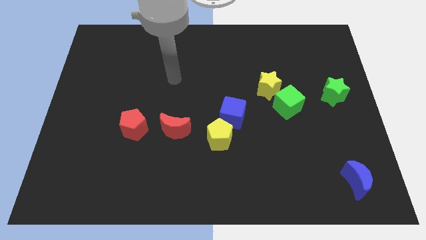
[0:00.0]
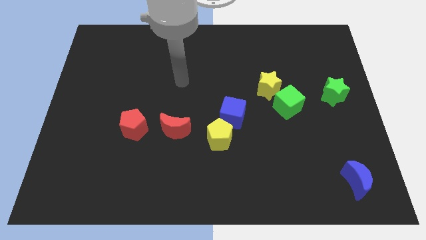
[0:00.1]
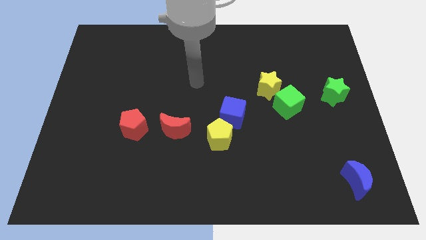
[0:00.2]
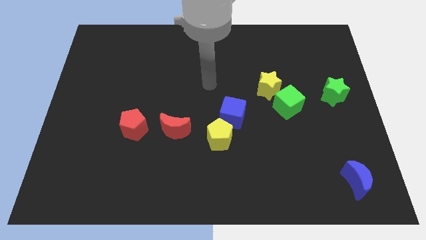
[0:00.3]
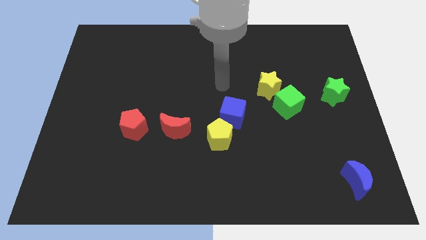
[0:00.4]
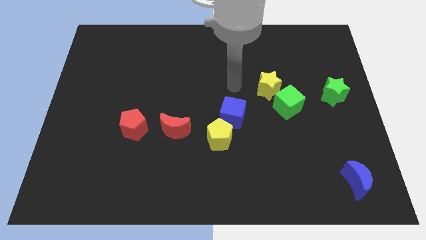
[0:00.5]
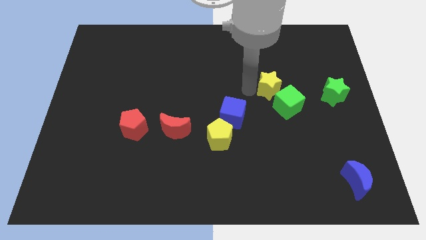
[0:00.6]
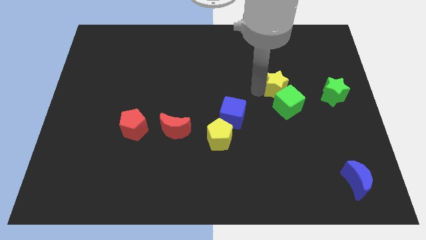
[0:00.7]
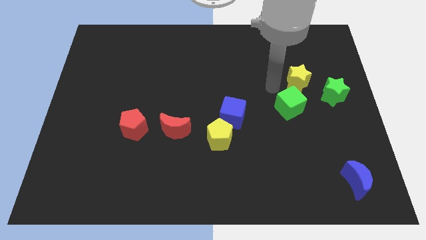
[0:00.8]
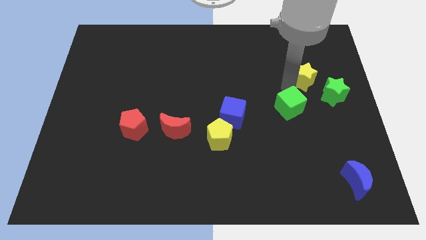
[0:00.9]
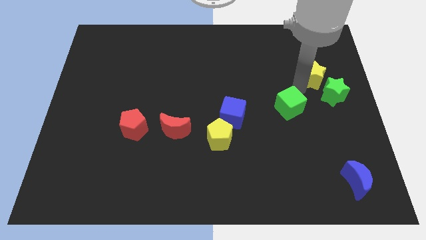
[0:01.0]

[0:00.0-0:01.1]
move the green cube away from the yellow star

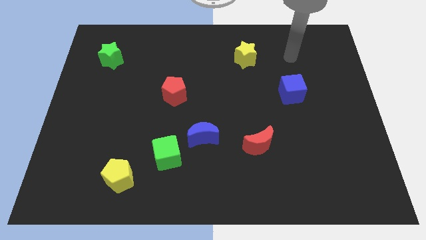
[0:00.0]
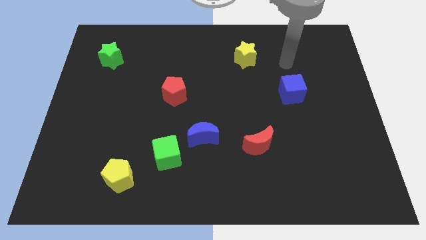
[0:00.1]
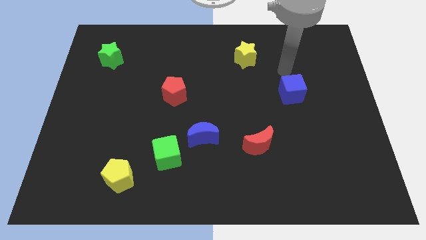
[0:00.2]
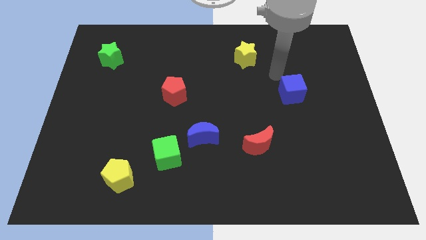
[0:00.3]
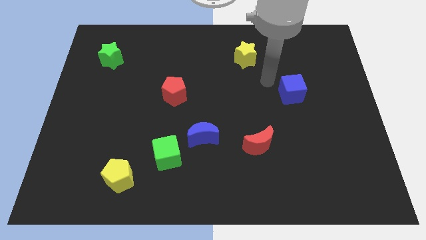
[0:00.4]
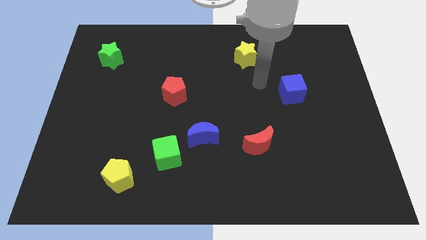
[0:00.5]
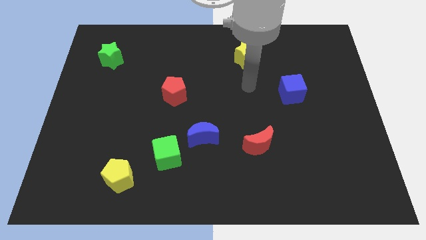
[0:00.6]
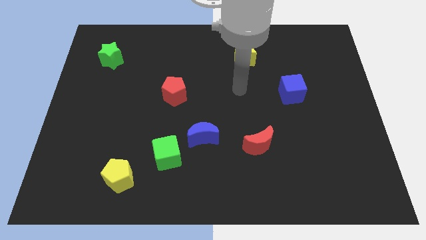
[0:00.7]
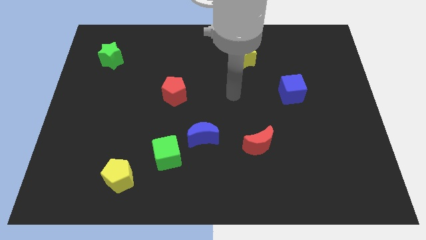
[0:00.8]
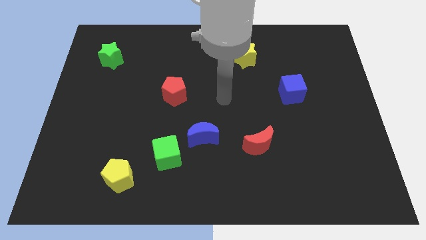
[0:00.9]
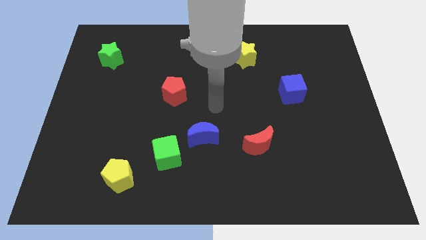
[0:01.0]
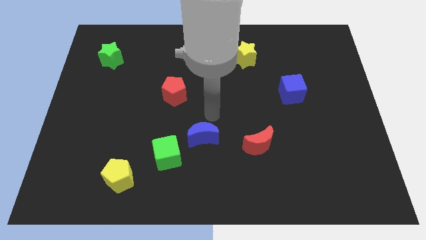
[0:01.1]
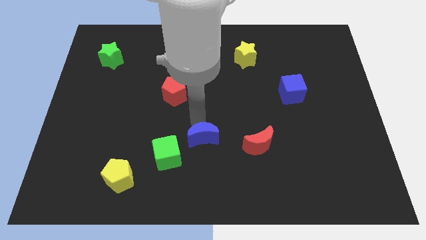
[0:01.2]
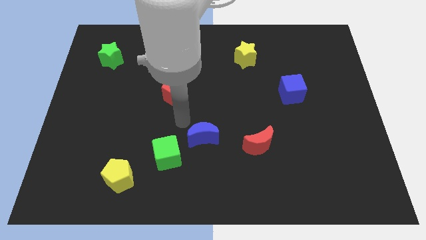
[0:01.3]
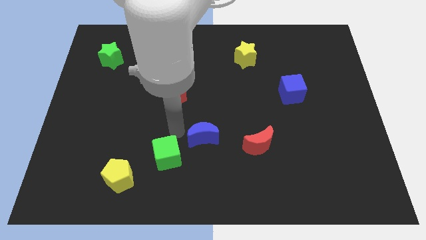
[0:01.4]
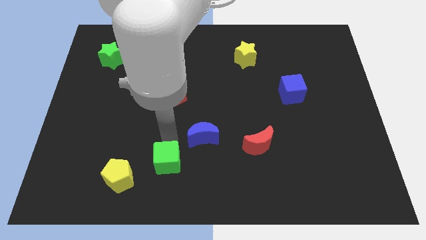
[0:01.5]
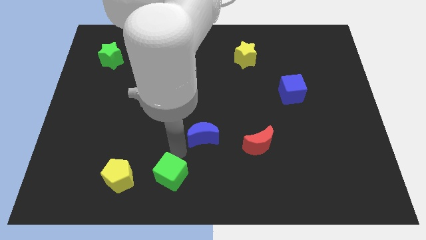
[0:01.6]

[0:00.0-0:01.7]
pull the blue moon apart from the green cube

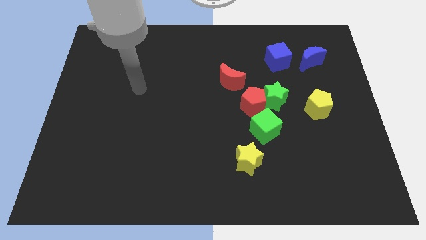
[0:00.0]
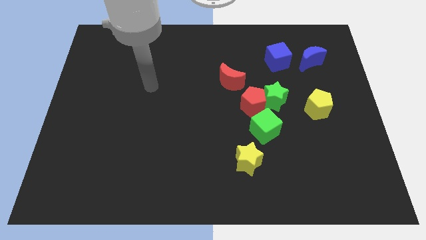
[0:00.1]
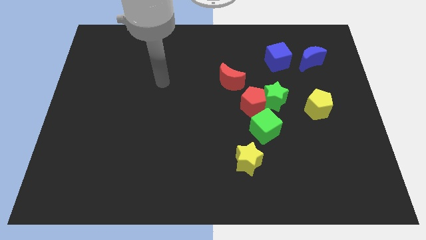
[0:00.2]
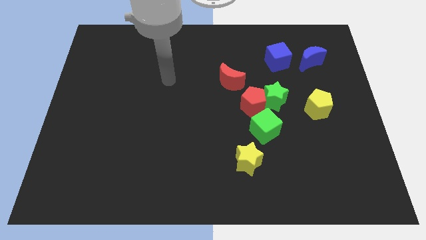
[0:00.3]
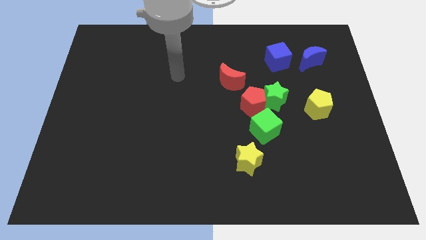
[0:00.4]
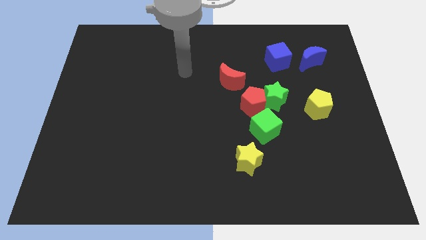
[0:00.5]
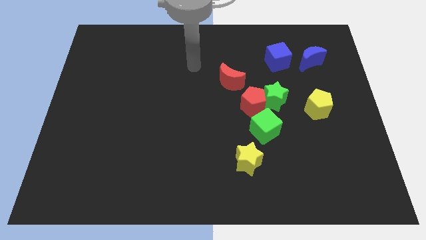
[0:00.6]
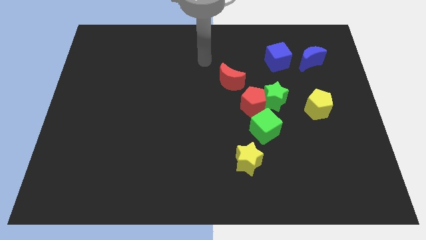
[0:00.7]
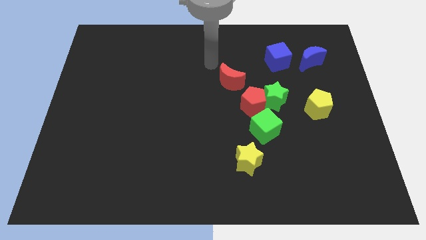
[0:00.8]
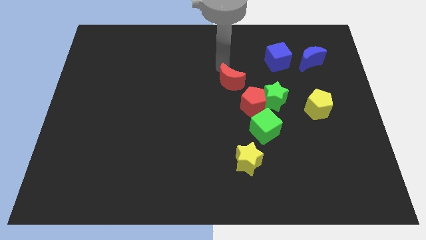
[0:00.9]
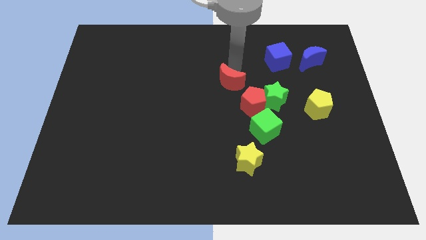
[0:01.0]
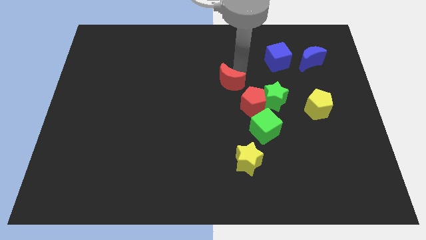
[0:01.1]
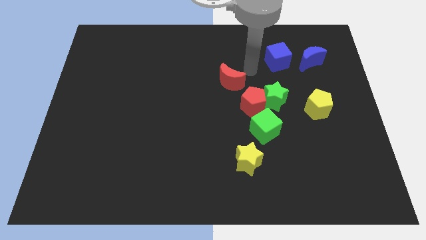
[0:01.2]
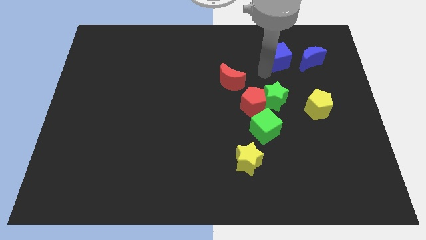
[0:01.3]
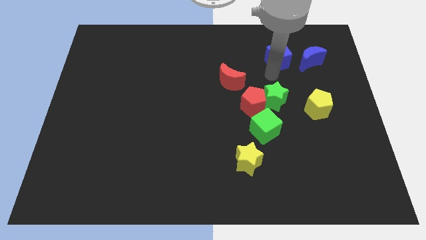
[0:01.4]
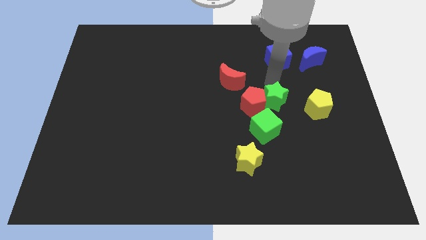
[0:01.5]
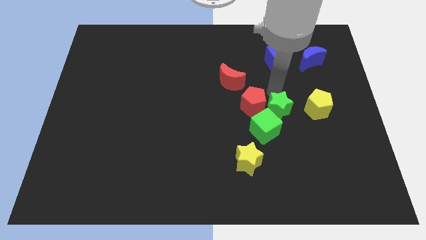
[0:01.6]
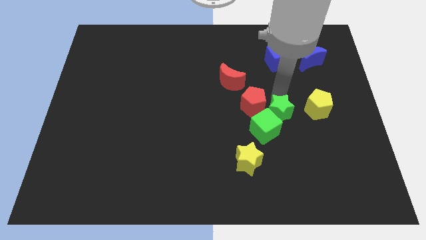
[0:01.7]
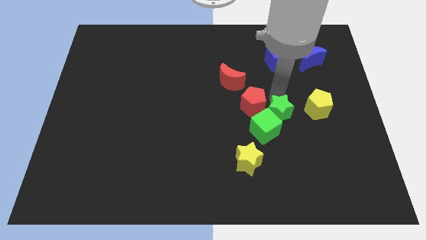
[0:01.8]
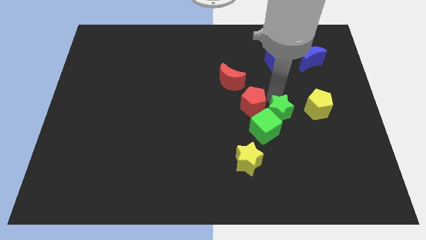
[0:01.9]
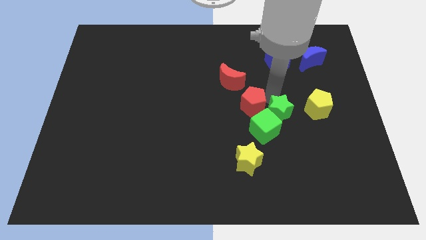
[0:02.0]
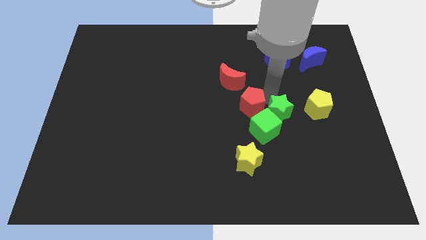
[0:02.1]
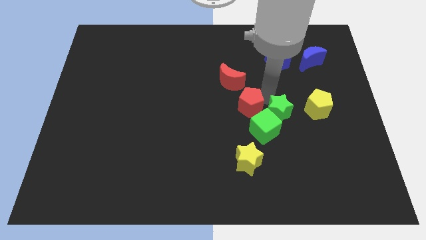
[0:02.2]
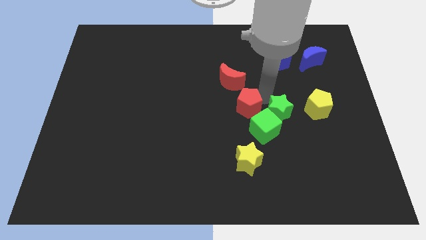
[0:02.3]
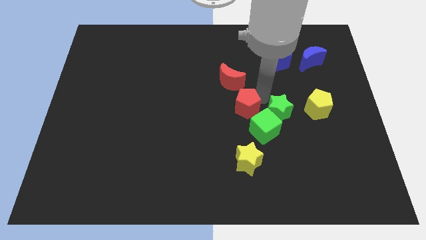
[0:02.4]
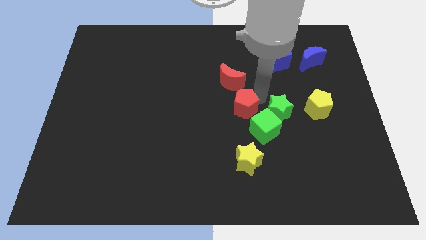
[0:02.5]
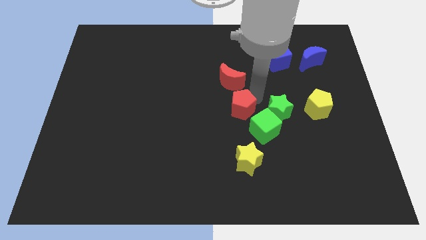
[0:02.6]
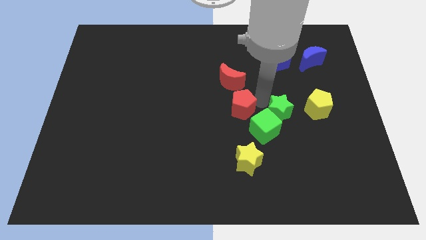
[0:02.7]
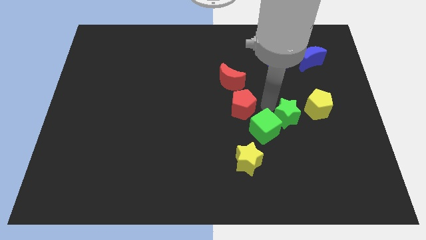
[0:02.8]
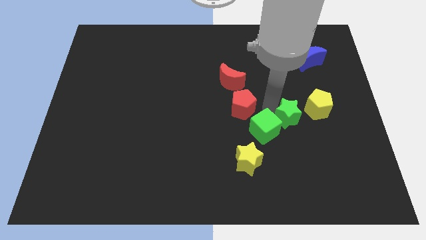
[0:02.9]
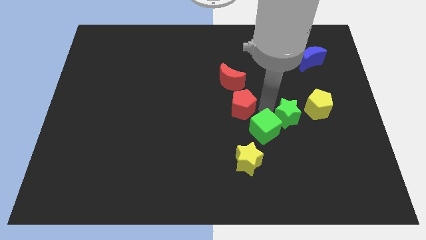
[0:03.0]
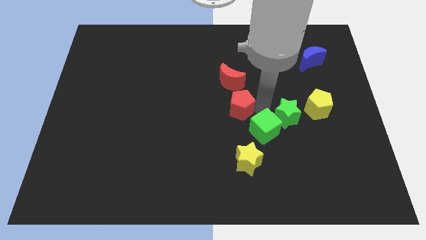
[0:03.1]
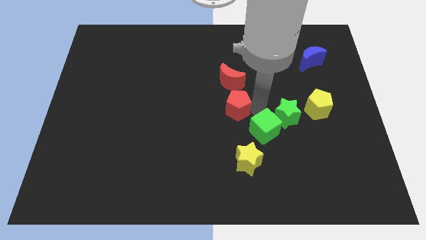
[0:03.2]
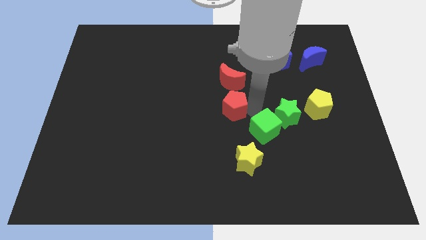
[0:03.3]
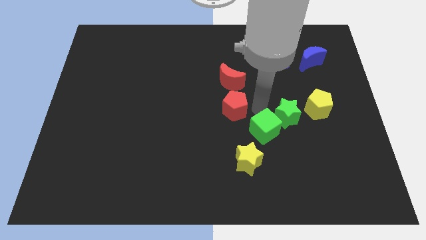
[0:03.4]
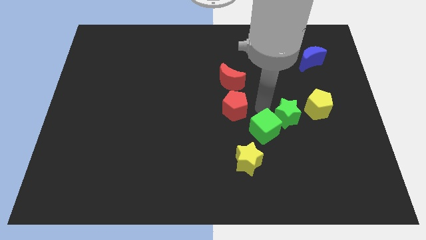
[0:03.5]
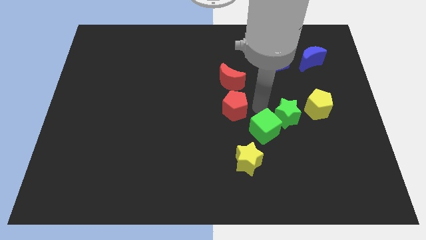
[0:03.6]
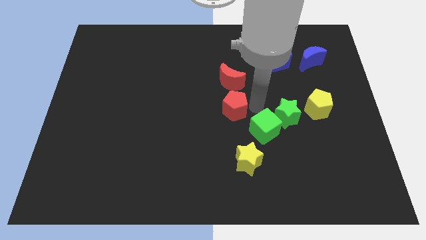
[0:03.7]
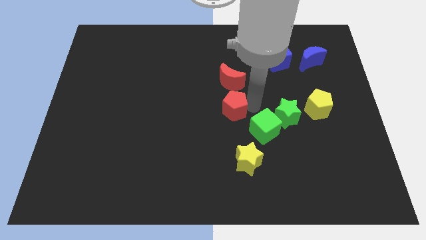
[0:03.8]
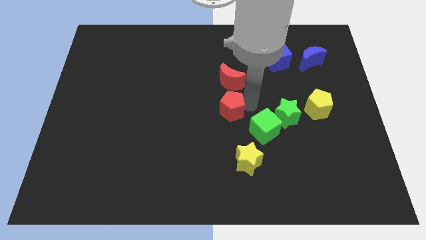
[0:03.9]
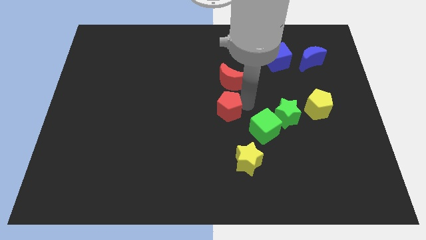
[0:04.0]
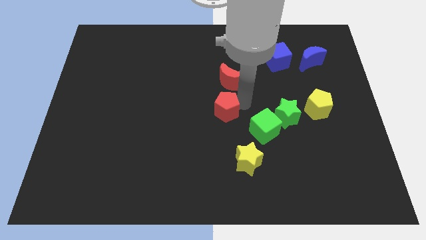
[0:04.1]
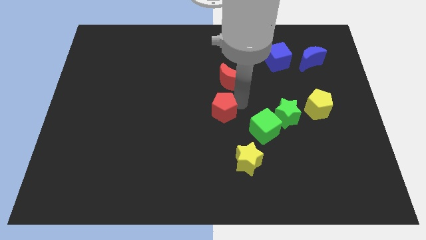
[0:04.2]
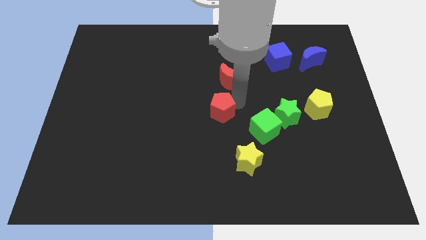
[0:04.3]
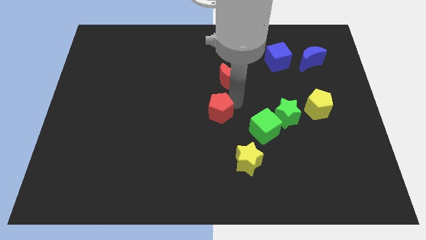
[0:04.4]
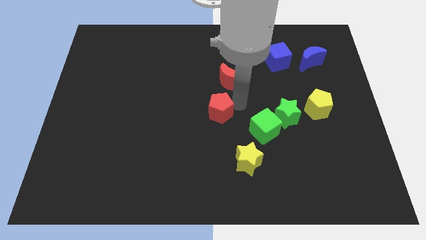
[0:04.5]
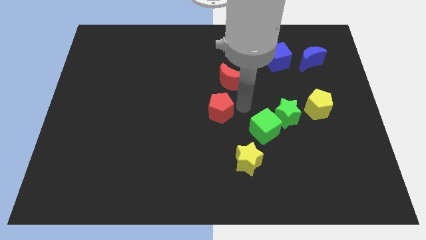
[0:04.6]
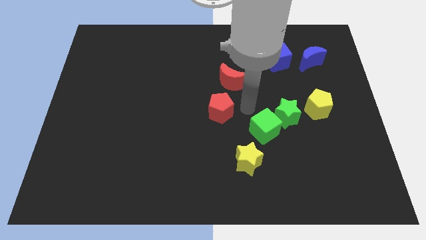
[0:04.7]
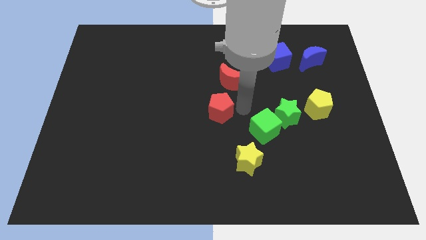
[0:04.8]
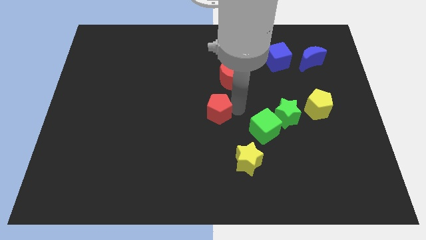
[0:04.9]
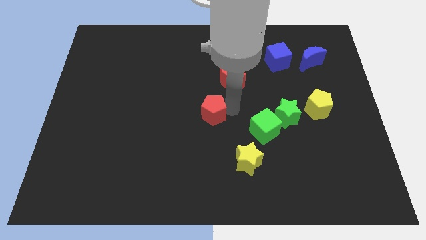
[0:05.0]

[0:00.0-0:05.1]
separate the red pentagon from the green star, green cube, and red moon

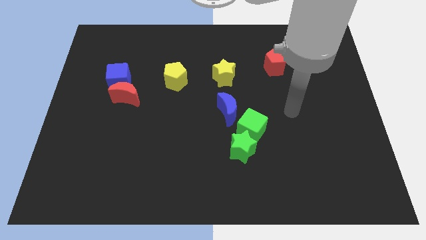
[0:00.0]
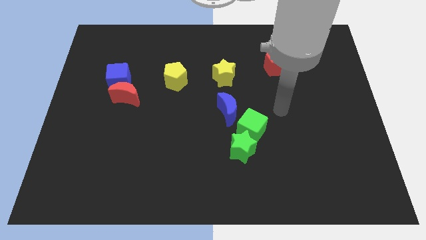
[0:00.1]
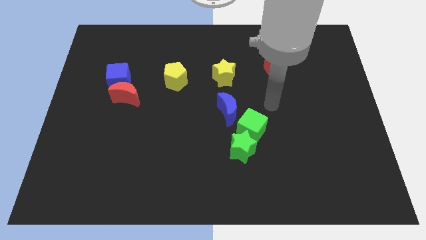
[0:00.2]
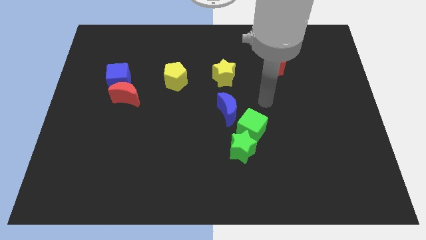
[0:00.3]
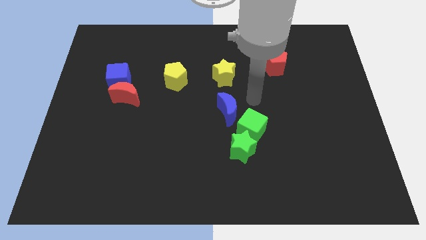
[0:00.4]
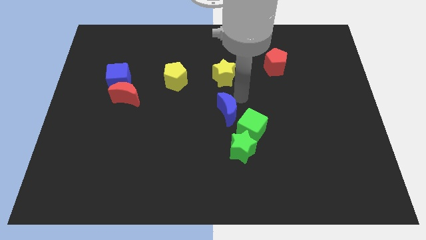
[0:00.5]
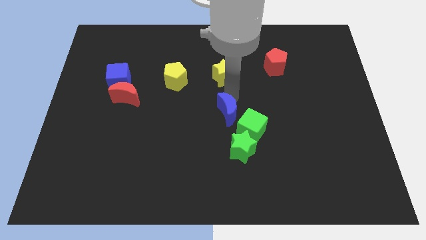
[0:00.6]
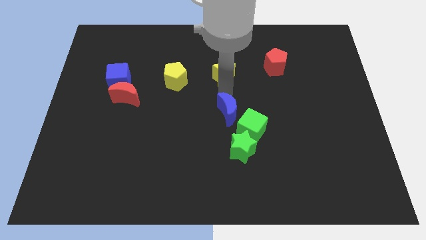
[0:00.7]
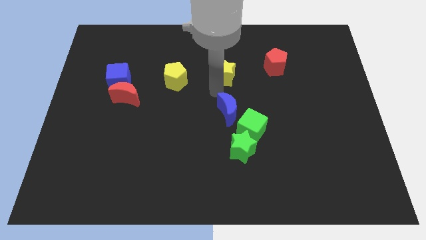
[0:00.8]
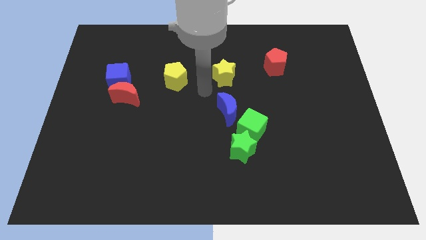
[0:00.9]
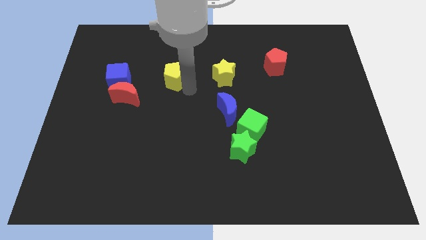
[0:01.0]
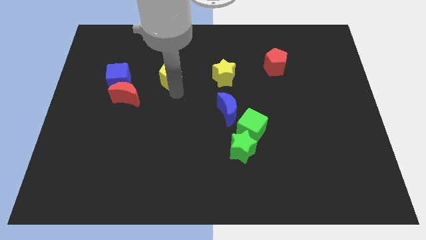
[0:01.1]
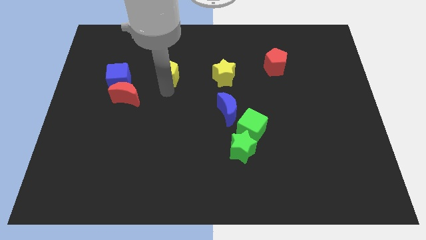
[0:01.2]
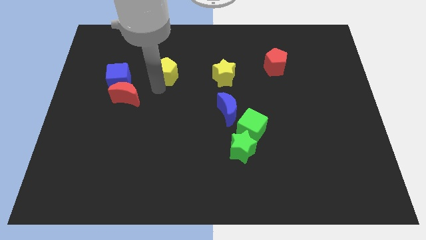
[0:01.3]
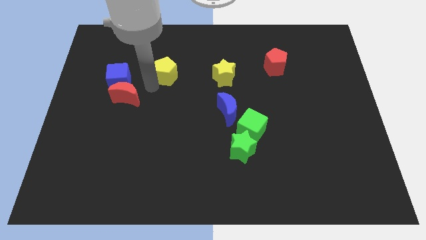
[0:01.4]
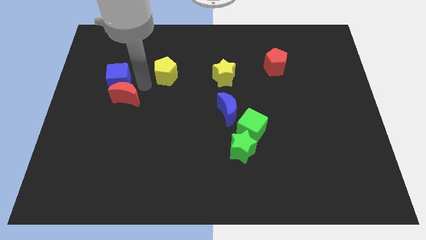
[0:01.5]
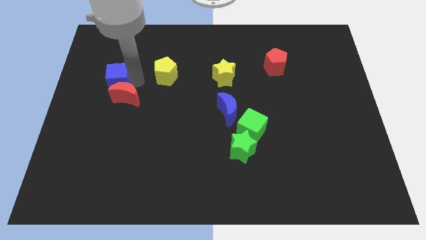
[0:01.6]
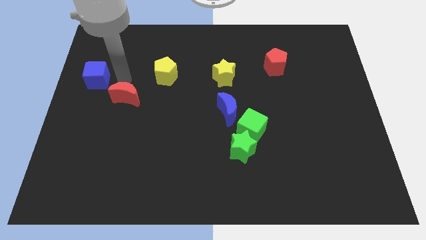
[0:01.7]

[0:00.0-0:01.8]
separate the red moon from the blue cube
